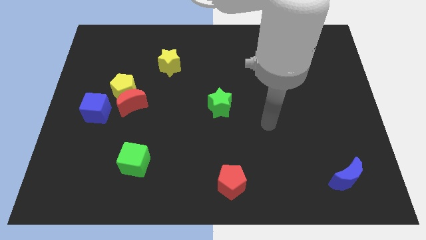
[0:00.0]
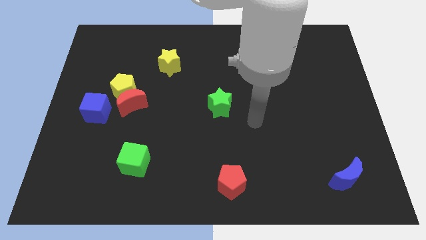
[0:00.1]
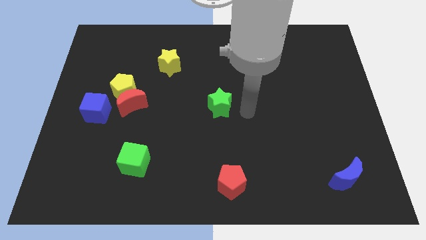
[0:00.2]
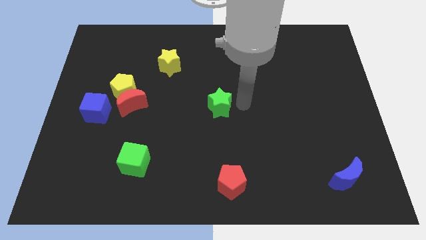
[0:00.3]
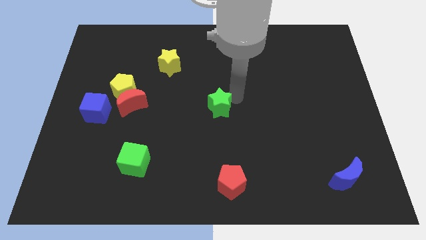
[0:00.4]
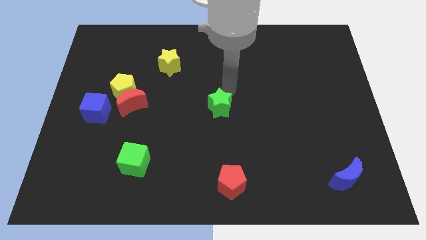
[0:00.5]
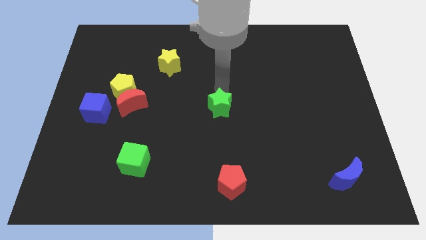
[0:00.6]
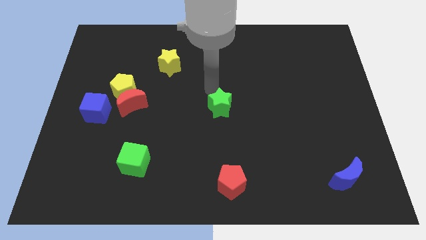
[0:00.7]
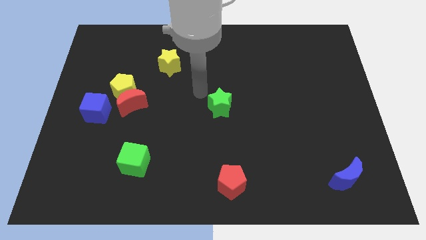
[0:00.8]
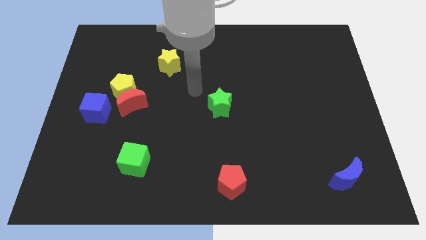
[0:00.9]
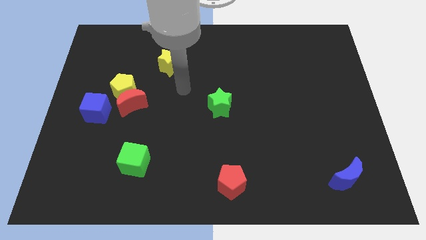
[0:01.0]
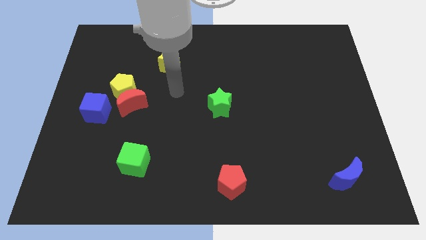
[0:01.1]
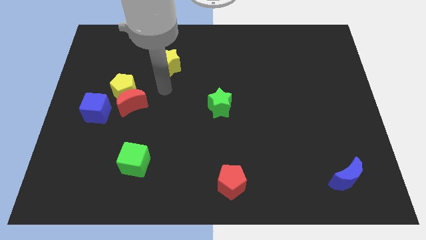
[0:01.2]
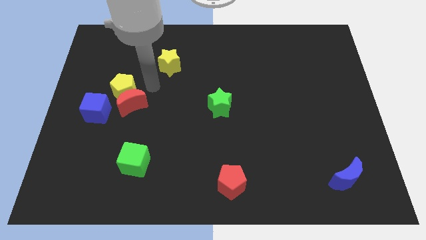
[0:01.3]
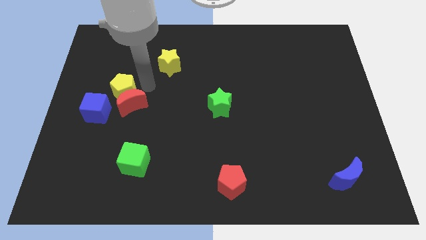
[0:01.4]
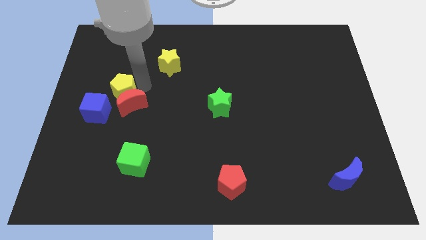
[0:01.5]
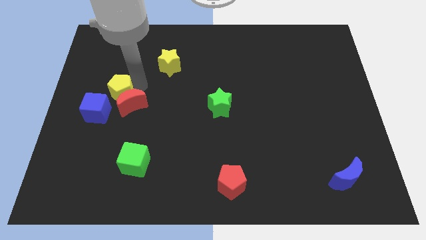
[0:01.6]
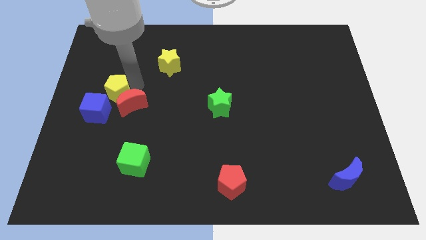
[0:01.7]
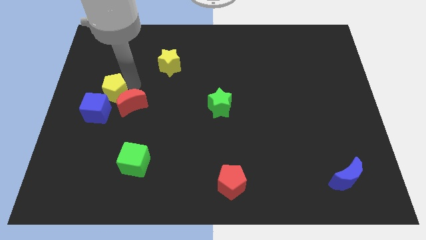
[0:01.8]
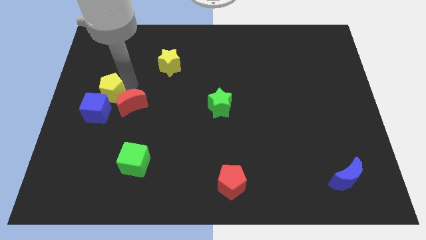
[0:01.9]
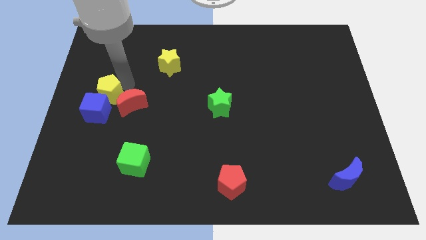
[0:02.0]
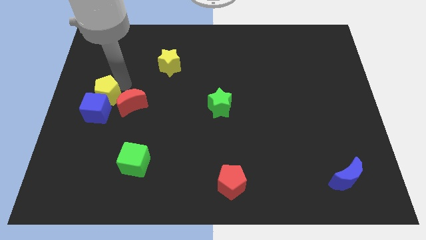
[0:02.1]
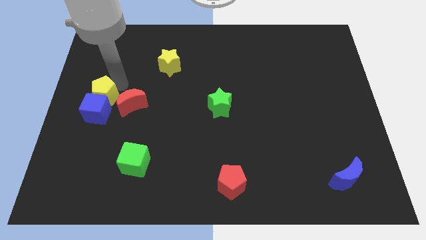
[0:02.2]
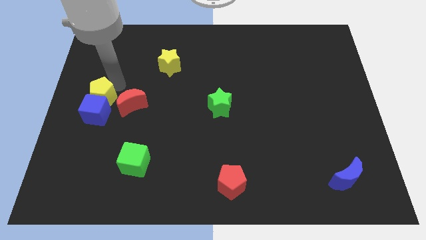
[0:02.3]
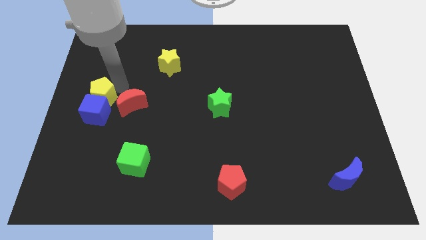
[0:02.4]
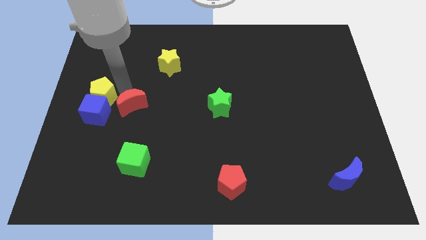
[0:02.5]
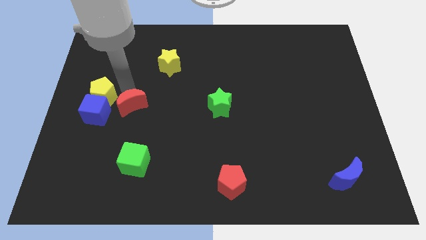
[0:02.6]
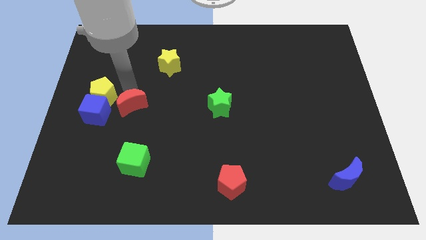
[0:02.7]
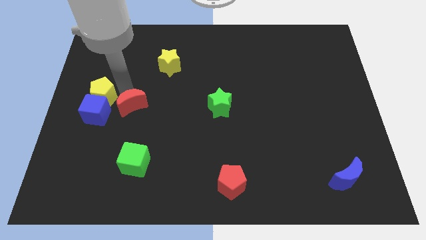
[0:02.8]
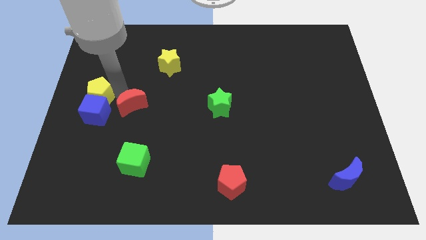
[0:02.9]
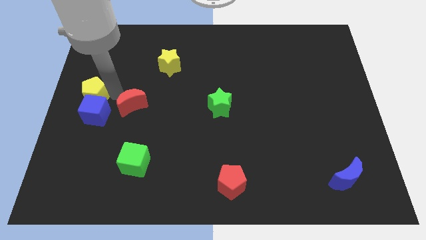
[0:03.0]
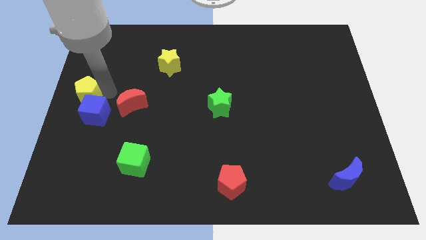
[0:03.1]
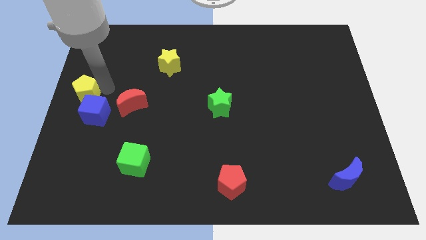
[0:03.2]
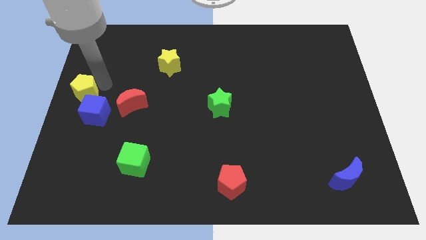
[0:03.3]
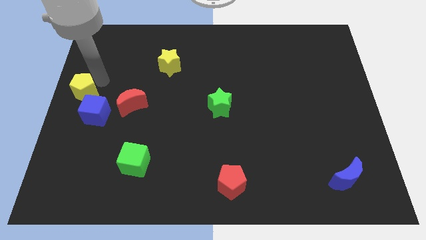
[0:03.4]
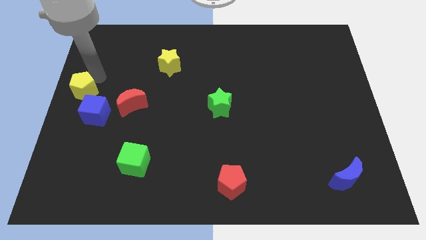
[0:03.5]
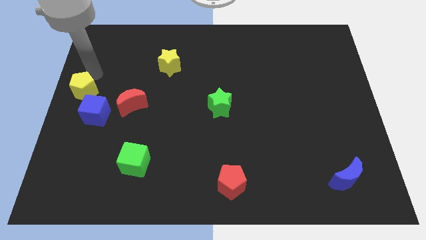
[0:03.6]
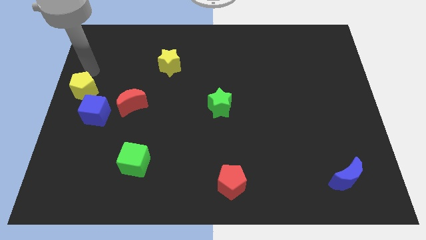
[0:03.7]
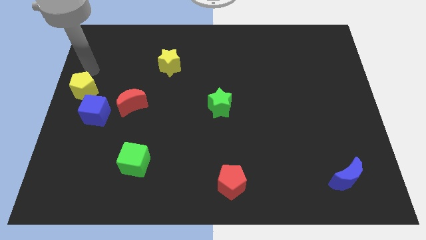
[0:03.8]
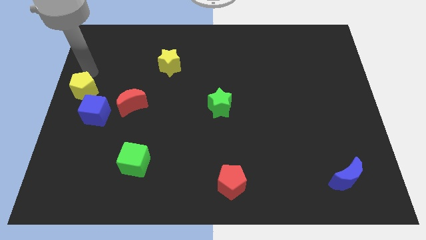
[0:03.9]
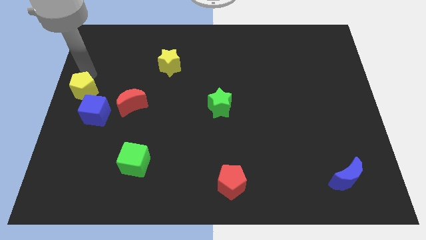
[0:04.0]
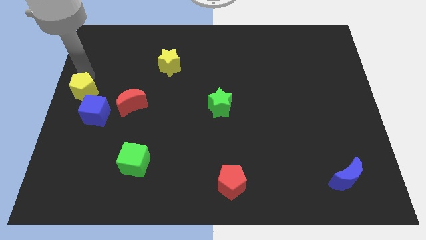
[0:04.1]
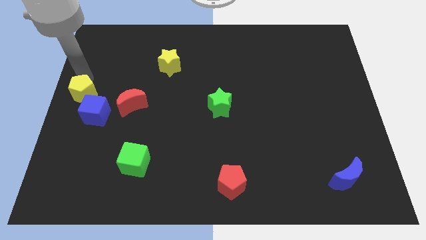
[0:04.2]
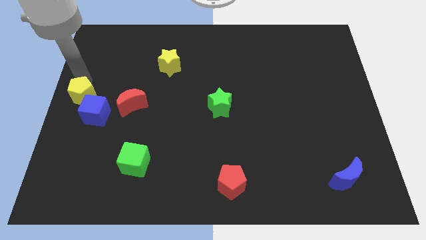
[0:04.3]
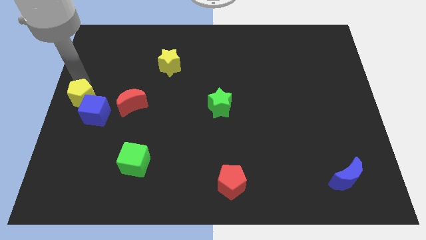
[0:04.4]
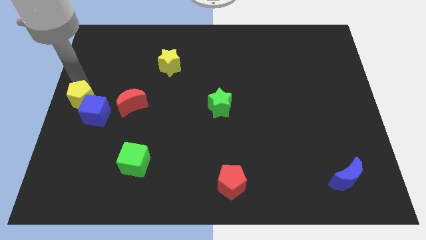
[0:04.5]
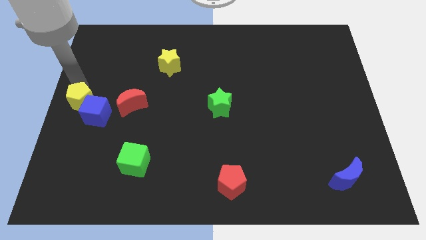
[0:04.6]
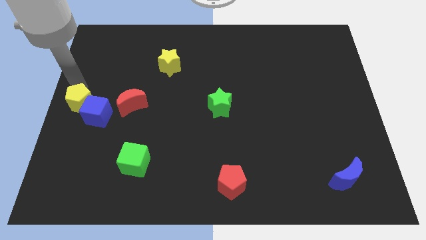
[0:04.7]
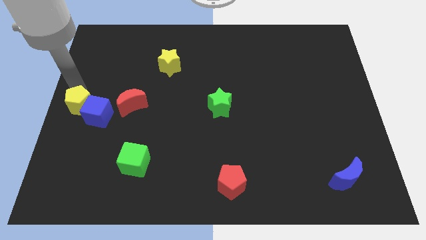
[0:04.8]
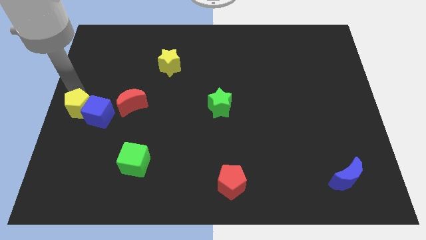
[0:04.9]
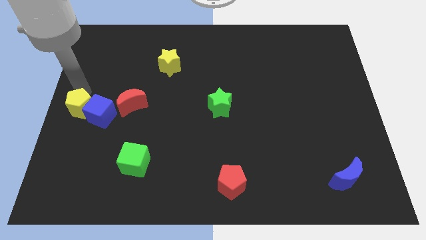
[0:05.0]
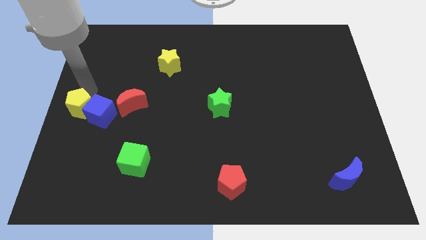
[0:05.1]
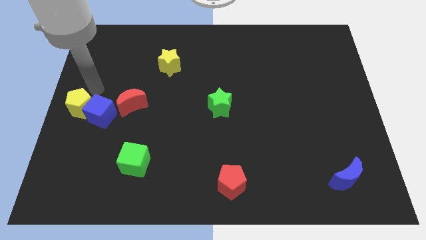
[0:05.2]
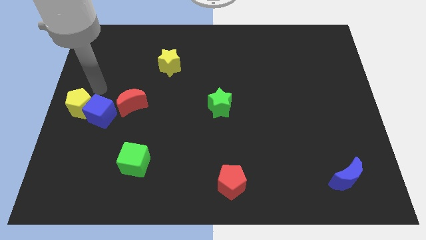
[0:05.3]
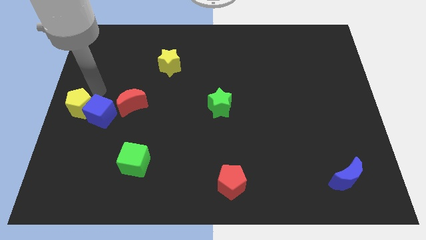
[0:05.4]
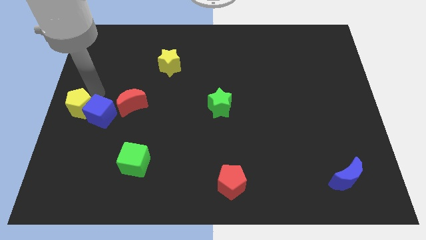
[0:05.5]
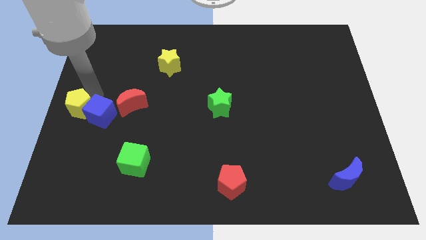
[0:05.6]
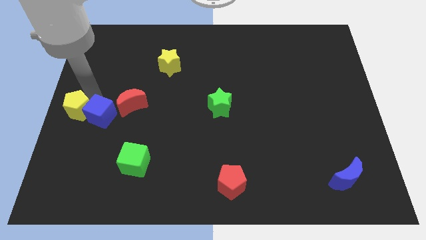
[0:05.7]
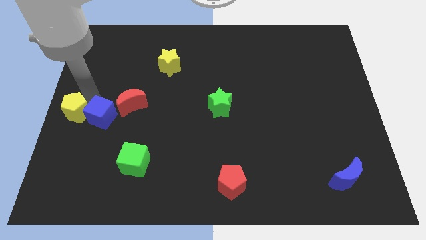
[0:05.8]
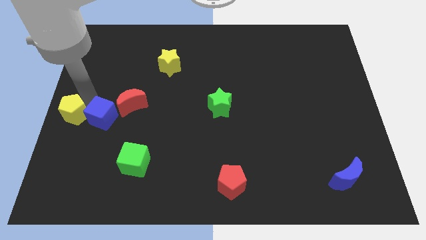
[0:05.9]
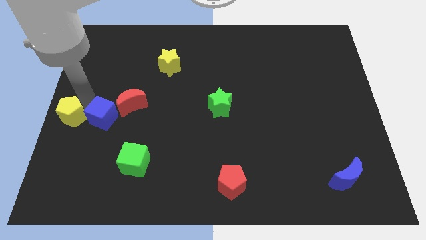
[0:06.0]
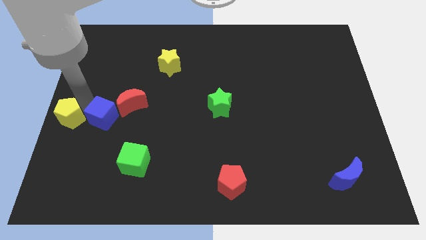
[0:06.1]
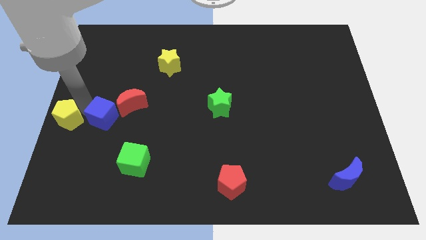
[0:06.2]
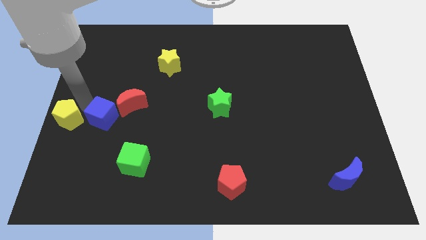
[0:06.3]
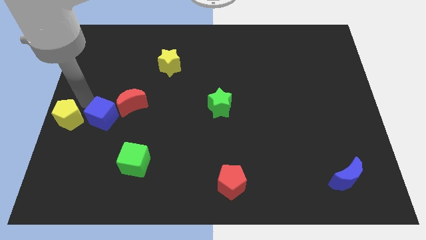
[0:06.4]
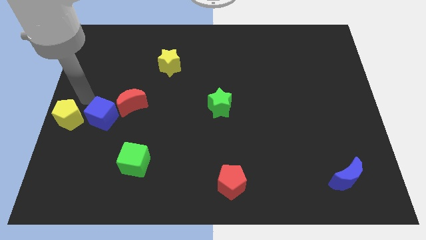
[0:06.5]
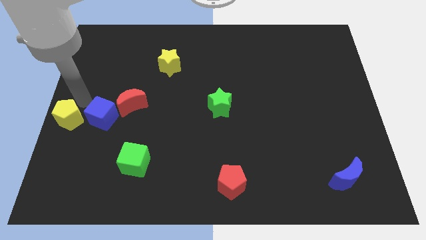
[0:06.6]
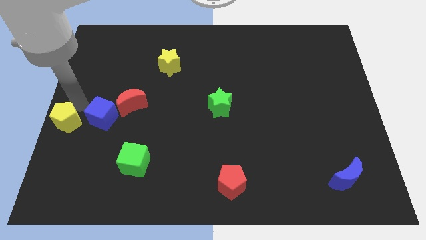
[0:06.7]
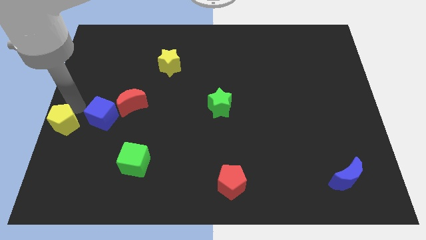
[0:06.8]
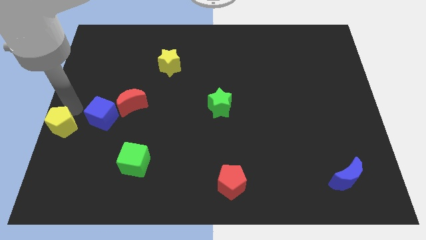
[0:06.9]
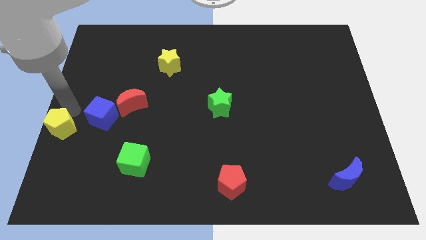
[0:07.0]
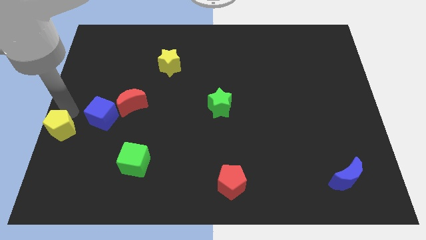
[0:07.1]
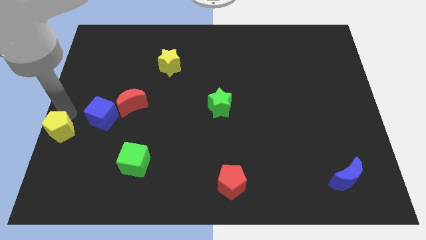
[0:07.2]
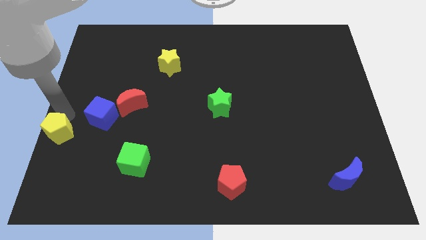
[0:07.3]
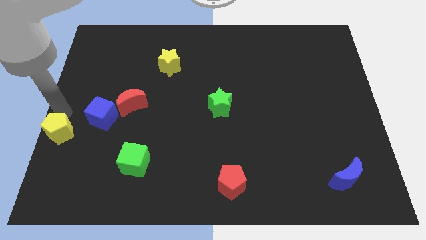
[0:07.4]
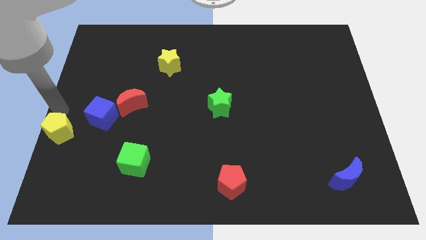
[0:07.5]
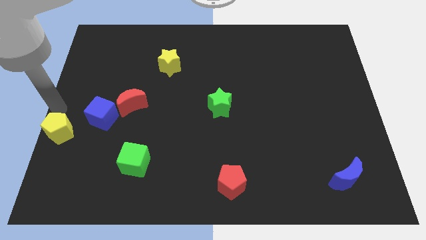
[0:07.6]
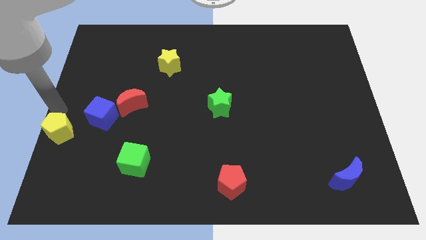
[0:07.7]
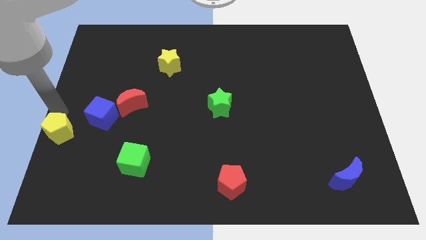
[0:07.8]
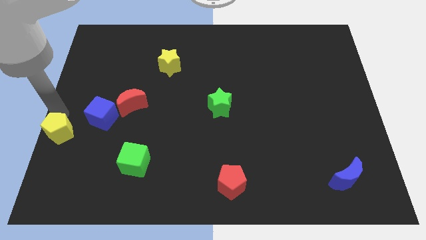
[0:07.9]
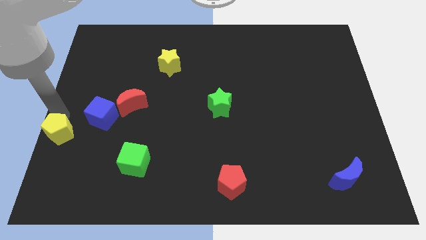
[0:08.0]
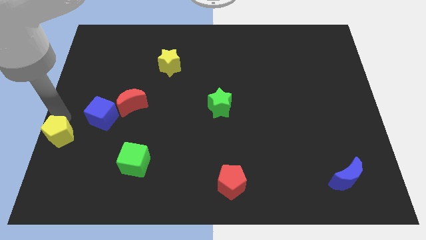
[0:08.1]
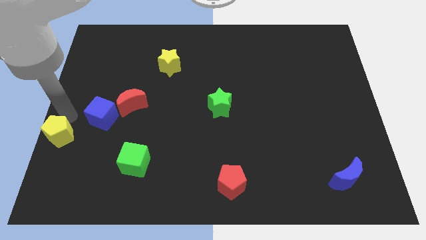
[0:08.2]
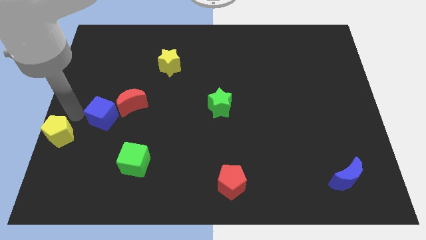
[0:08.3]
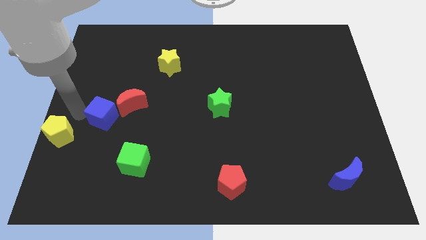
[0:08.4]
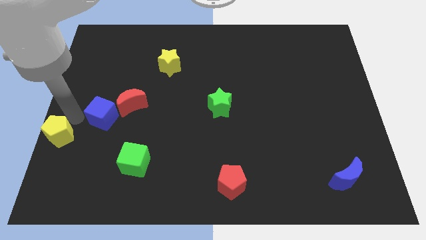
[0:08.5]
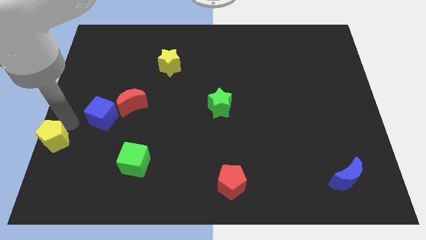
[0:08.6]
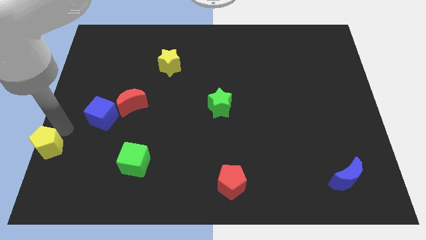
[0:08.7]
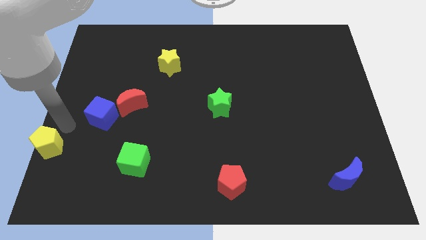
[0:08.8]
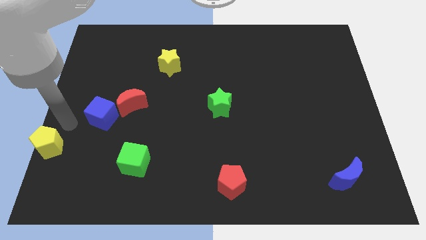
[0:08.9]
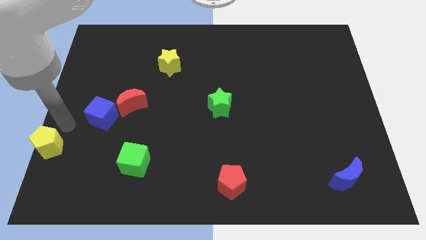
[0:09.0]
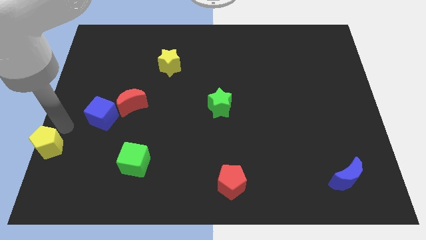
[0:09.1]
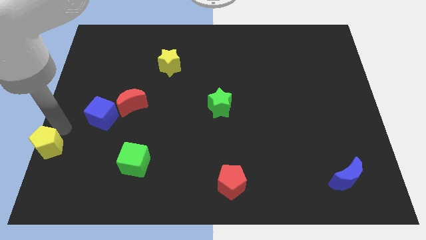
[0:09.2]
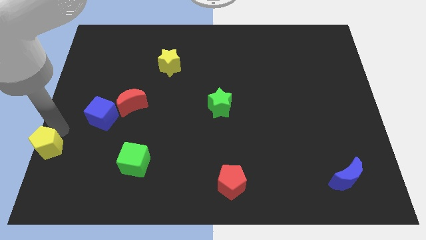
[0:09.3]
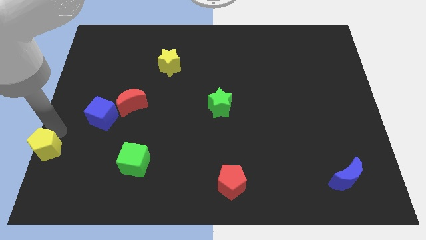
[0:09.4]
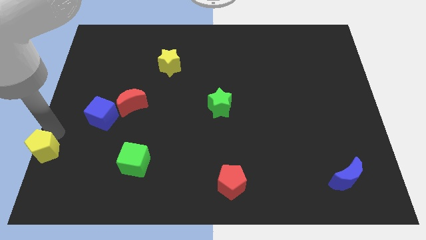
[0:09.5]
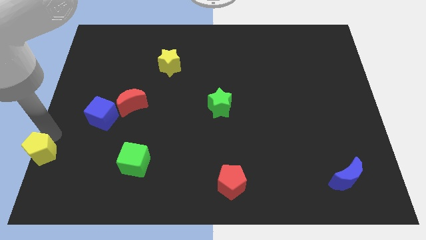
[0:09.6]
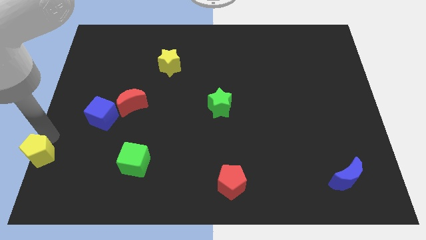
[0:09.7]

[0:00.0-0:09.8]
slide the yellow pentagon to the lower left corner
